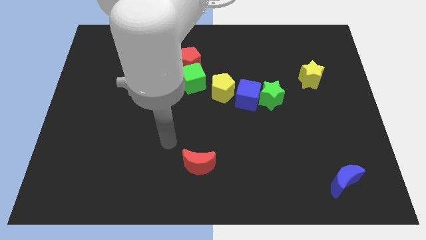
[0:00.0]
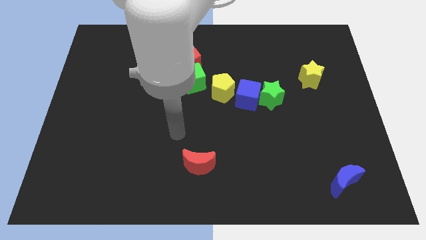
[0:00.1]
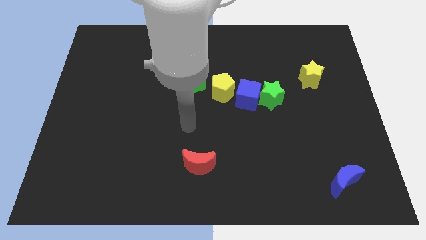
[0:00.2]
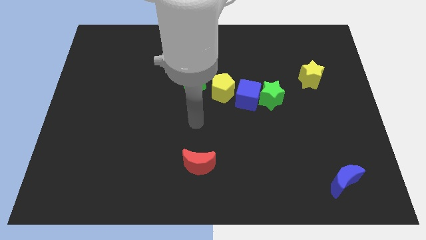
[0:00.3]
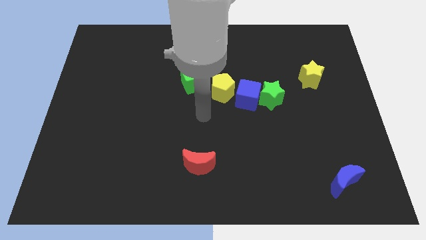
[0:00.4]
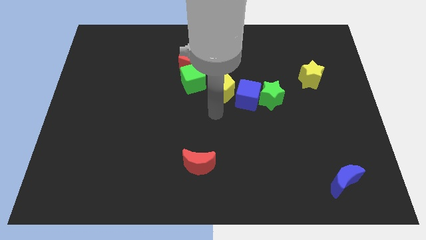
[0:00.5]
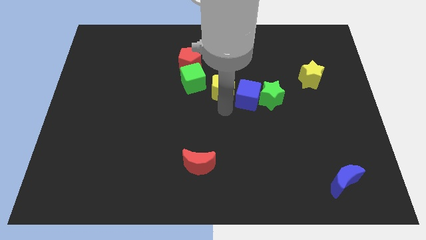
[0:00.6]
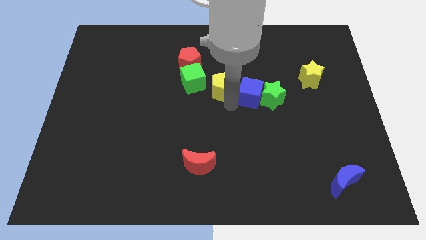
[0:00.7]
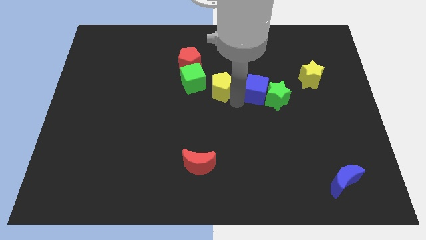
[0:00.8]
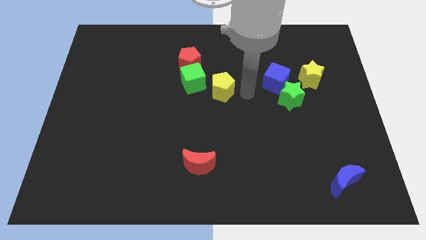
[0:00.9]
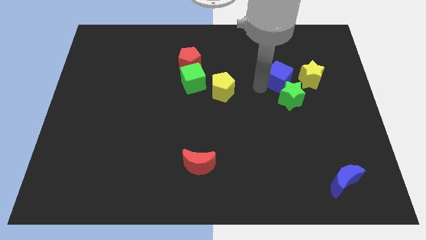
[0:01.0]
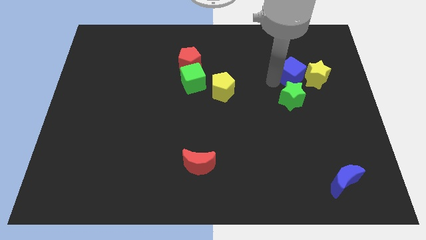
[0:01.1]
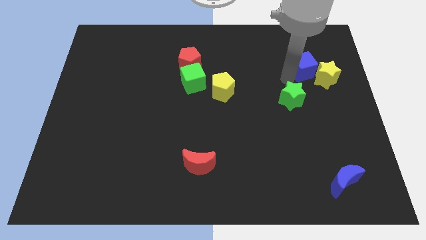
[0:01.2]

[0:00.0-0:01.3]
pull the green star apart from the blue cube

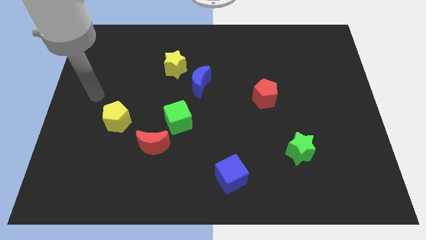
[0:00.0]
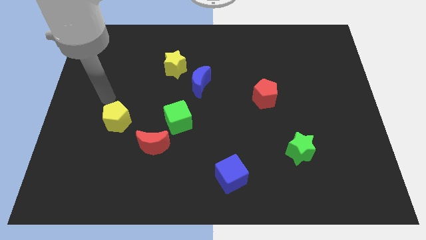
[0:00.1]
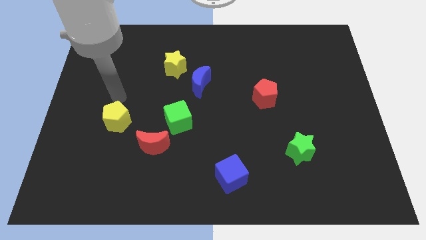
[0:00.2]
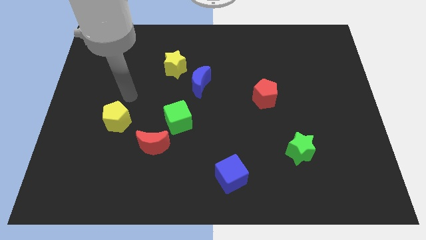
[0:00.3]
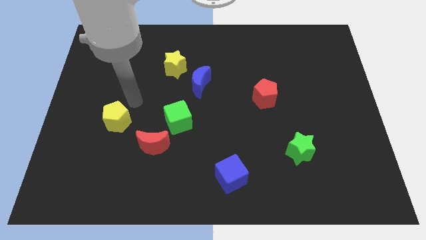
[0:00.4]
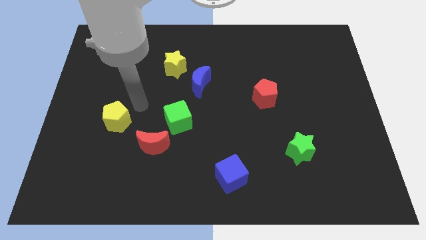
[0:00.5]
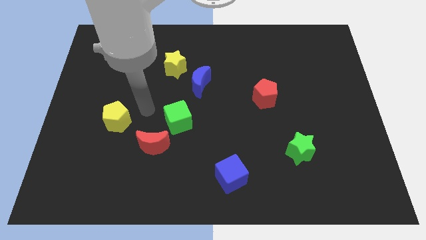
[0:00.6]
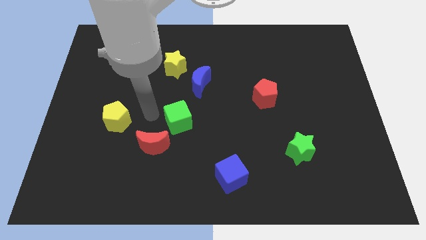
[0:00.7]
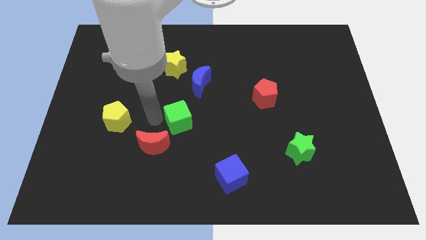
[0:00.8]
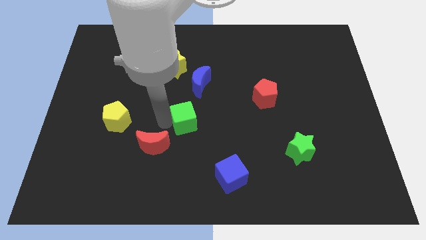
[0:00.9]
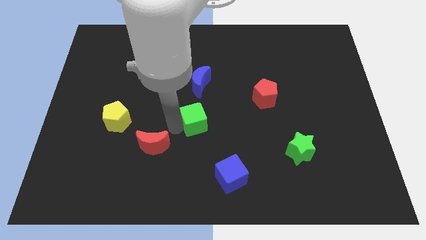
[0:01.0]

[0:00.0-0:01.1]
separate the red moon from the green cube

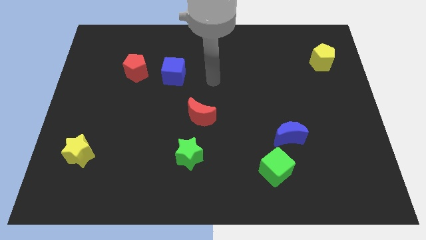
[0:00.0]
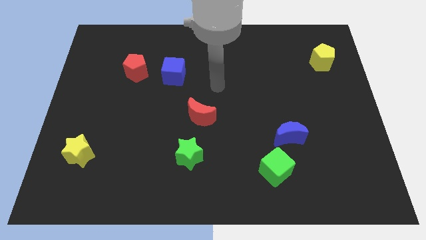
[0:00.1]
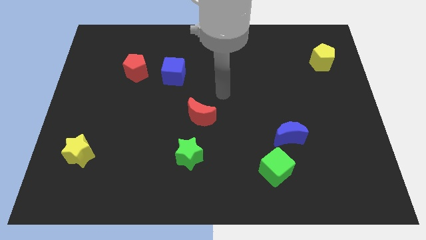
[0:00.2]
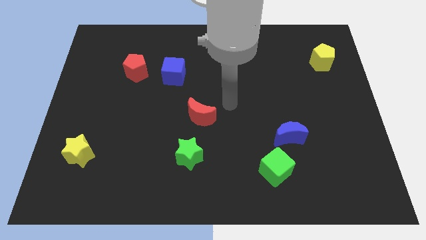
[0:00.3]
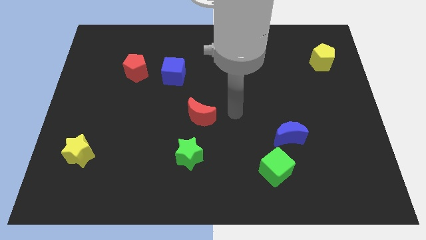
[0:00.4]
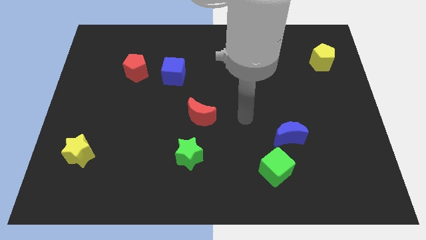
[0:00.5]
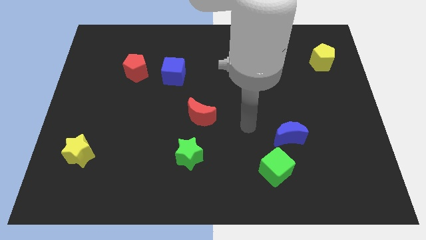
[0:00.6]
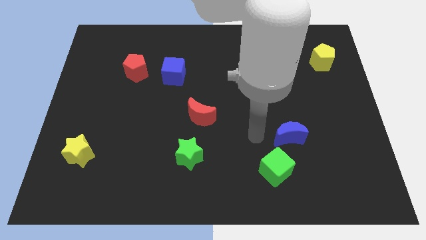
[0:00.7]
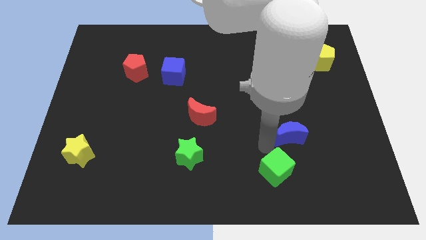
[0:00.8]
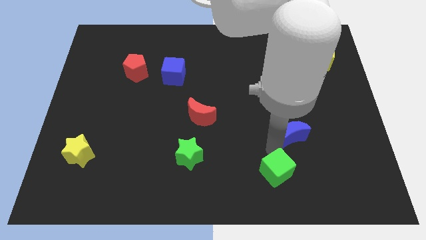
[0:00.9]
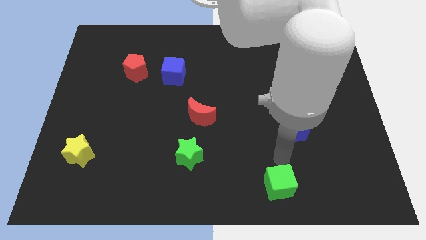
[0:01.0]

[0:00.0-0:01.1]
pull the blue moon apart from the green cube

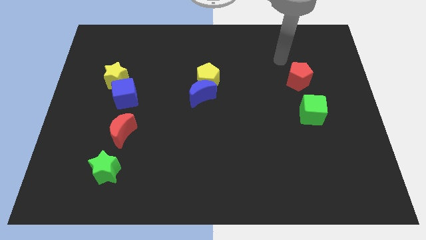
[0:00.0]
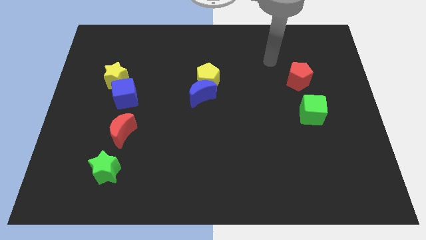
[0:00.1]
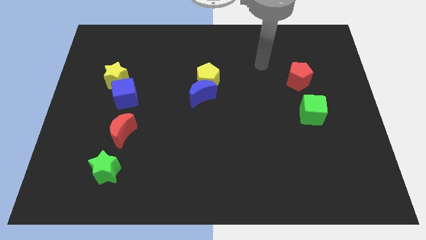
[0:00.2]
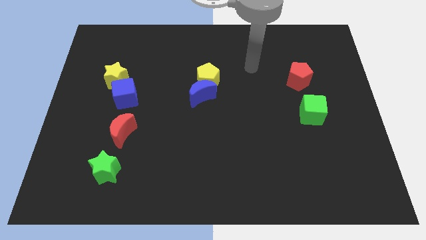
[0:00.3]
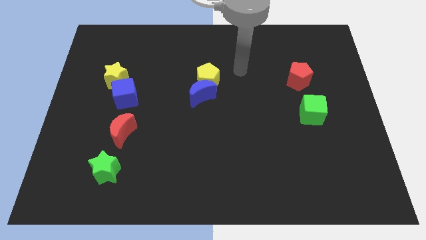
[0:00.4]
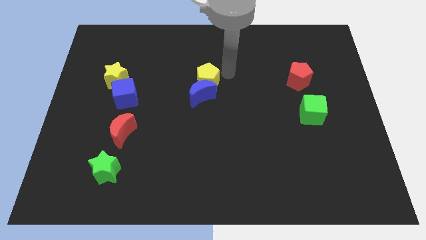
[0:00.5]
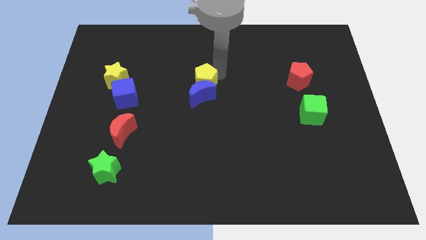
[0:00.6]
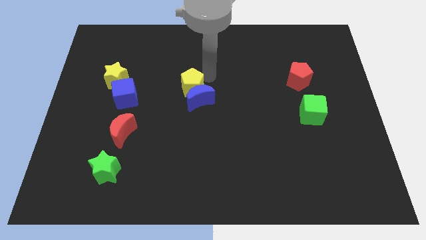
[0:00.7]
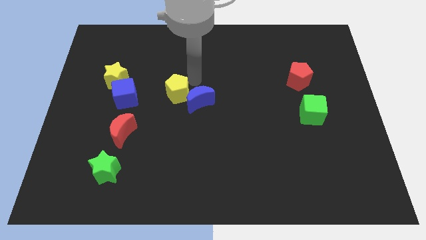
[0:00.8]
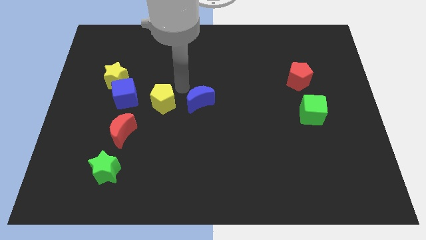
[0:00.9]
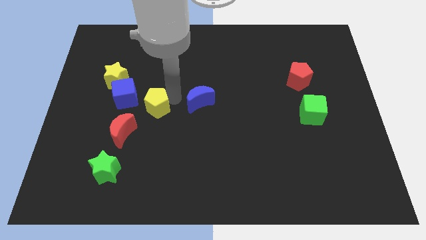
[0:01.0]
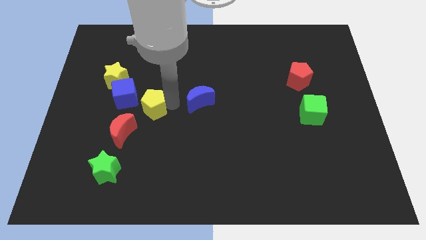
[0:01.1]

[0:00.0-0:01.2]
pull the blue moon apart from the yellow pentagon

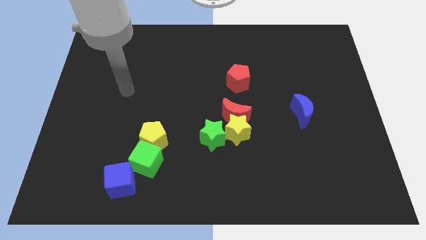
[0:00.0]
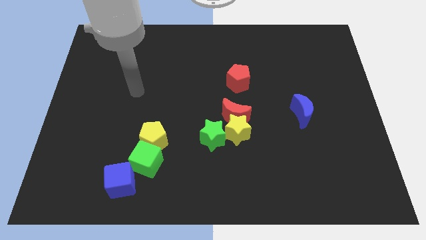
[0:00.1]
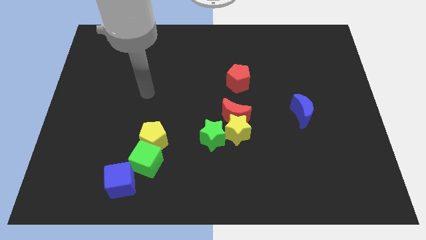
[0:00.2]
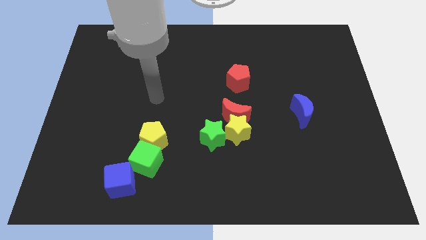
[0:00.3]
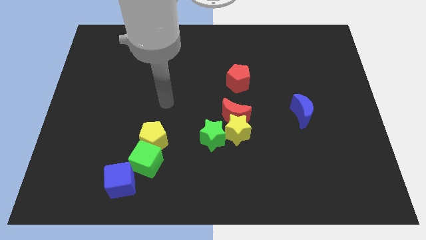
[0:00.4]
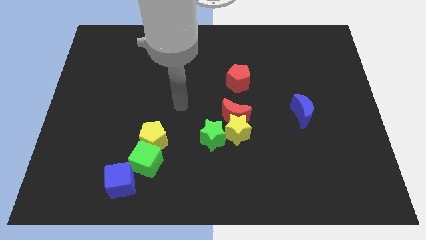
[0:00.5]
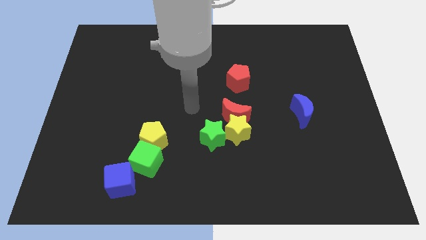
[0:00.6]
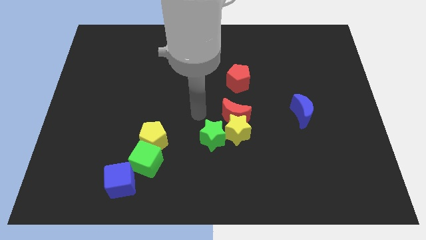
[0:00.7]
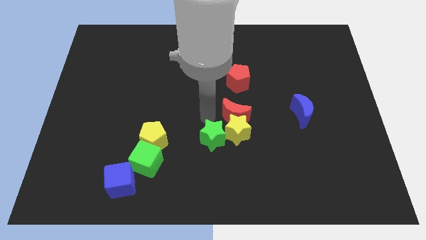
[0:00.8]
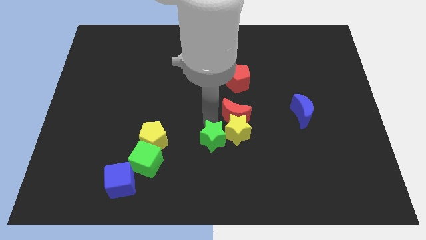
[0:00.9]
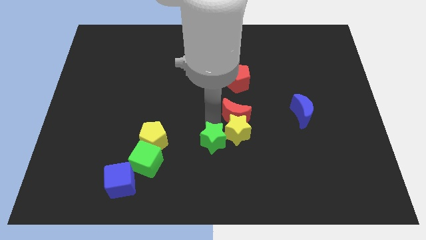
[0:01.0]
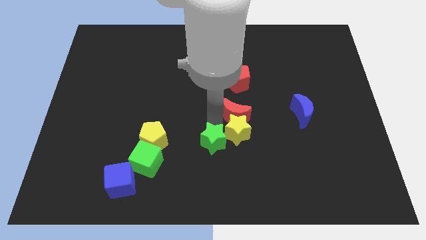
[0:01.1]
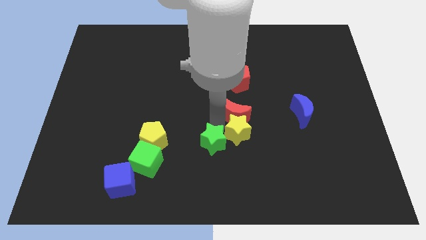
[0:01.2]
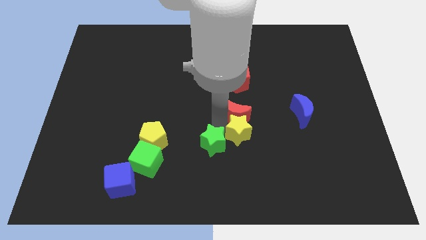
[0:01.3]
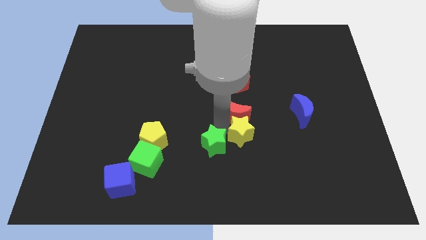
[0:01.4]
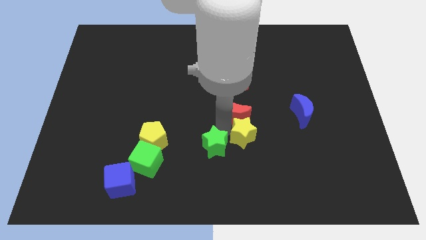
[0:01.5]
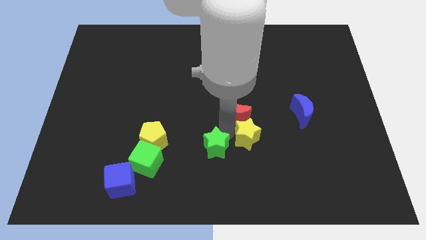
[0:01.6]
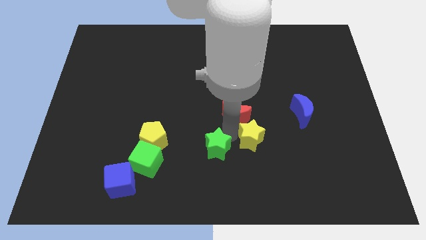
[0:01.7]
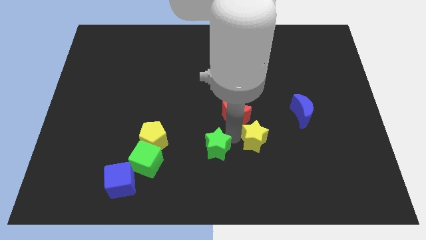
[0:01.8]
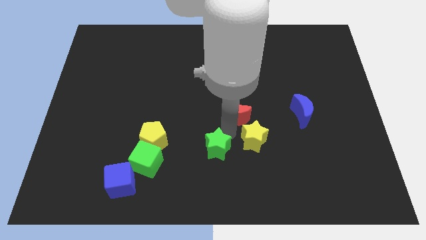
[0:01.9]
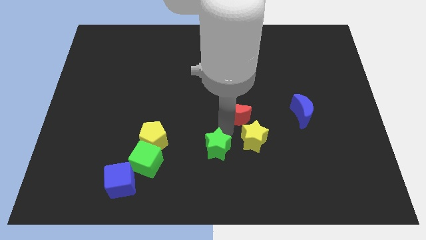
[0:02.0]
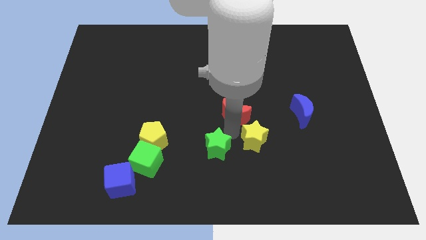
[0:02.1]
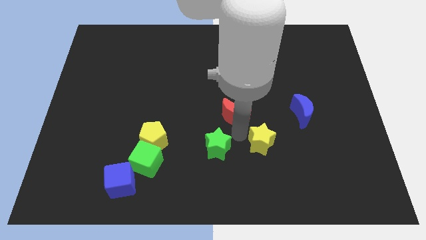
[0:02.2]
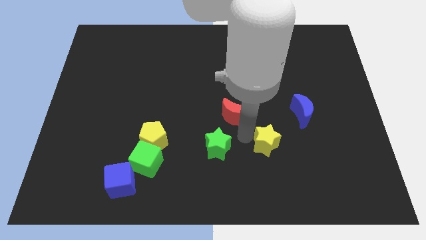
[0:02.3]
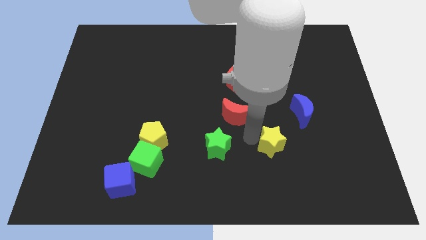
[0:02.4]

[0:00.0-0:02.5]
pull the yellow star apart from the red moon and green star

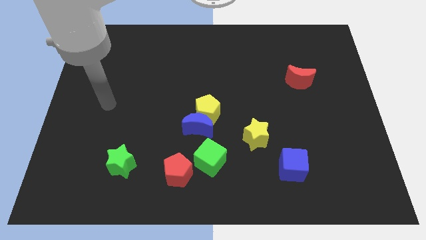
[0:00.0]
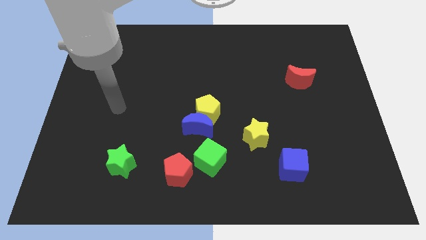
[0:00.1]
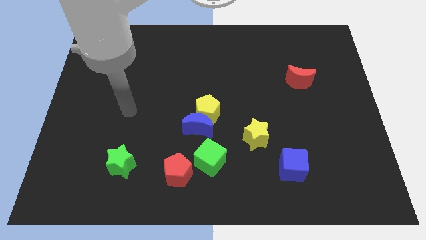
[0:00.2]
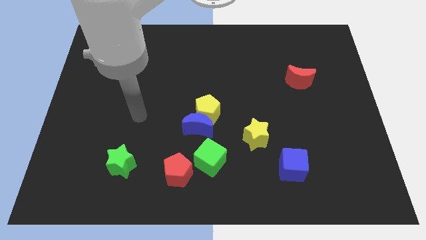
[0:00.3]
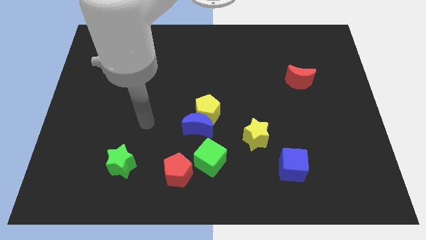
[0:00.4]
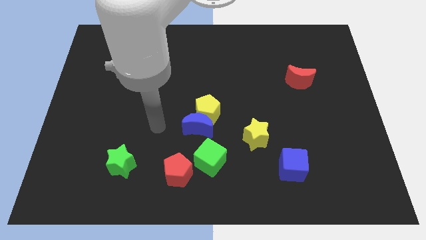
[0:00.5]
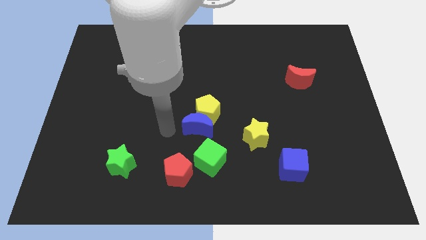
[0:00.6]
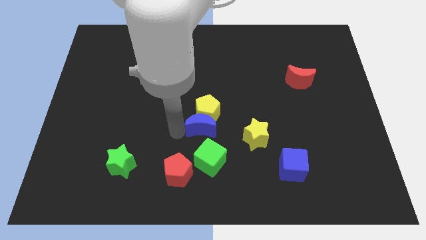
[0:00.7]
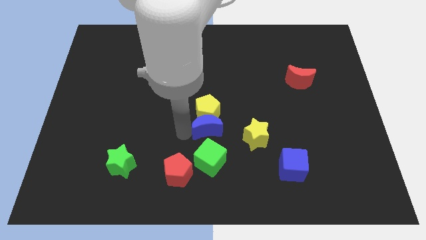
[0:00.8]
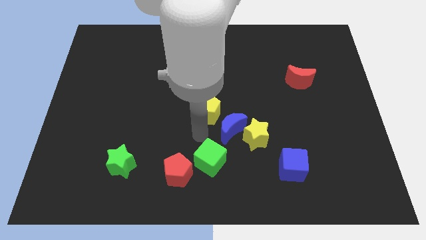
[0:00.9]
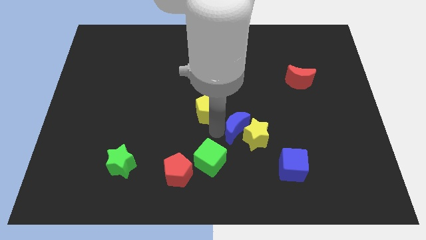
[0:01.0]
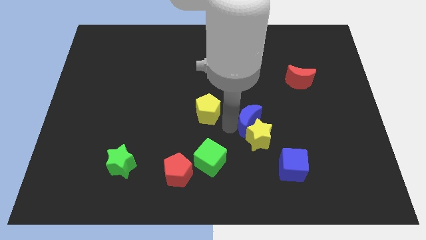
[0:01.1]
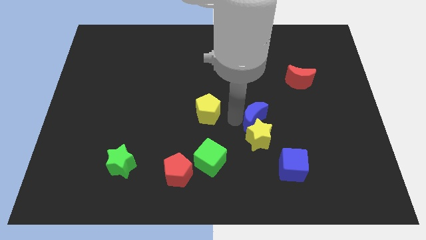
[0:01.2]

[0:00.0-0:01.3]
separate the yellow pentagon from the blue moon

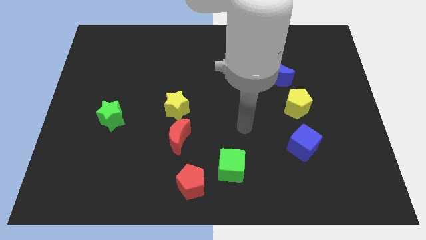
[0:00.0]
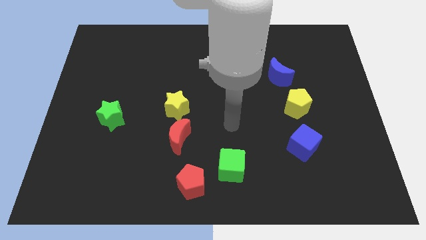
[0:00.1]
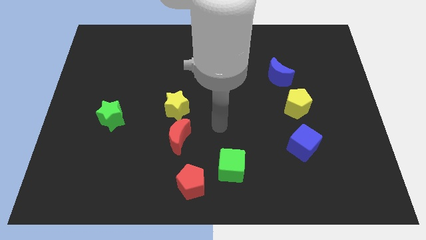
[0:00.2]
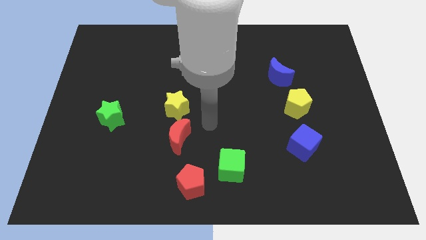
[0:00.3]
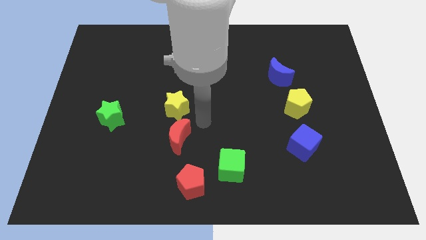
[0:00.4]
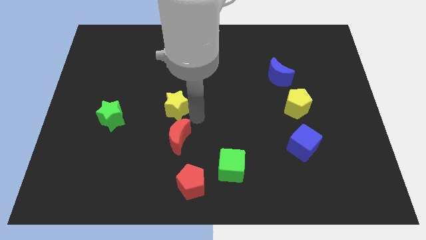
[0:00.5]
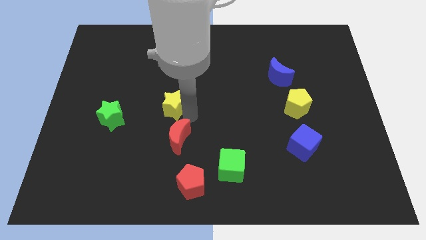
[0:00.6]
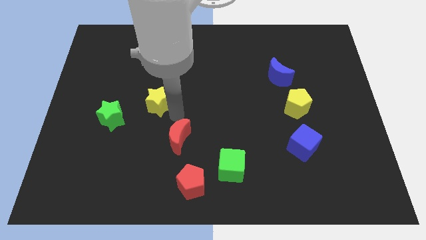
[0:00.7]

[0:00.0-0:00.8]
pull the red moon apart from the yellow star
